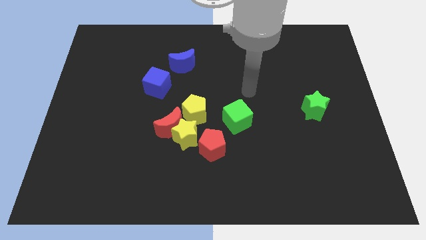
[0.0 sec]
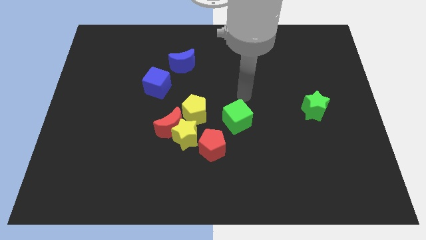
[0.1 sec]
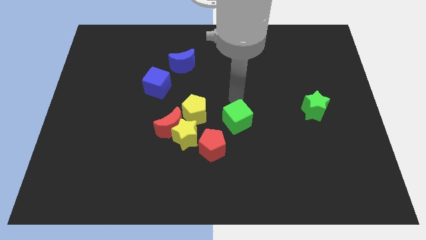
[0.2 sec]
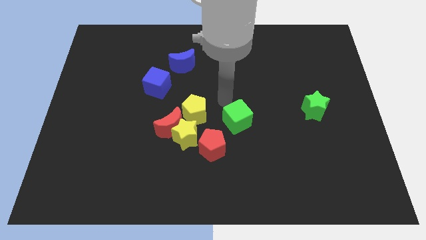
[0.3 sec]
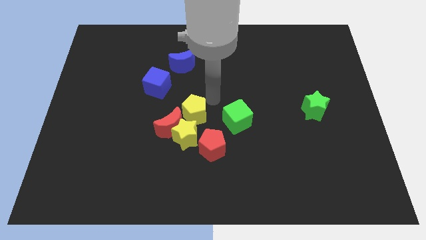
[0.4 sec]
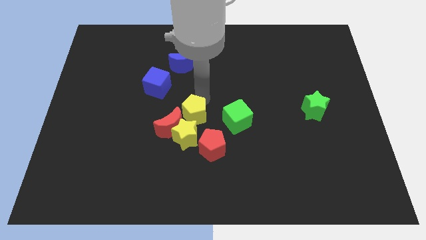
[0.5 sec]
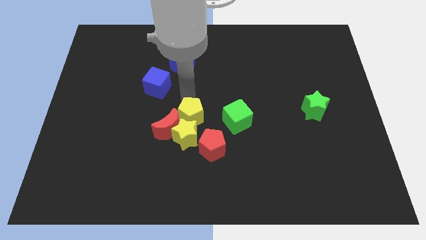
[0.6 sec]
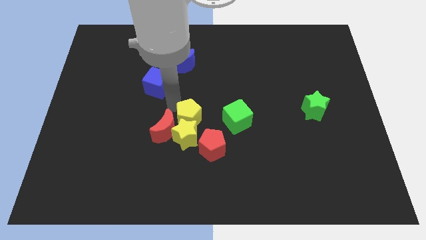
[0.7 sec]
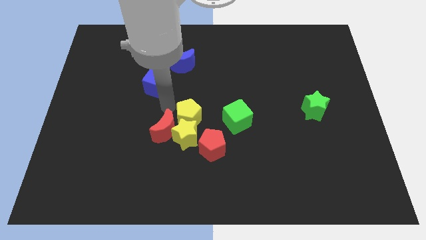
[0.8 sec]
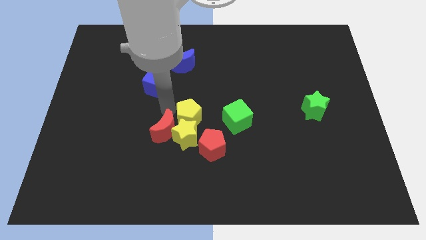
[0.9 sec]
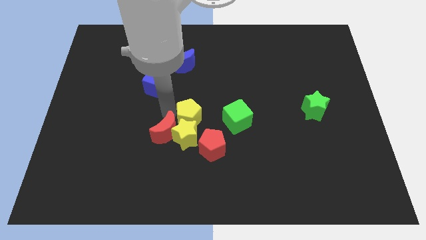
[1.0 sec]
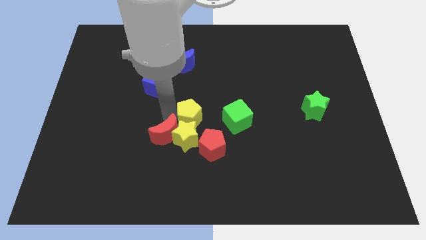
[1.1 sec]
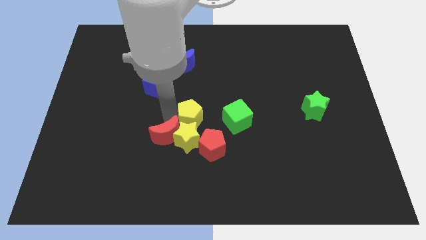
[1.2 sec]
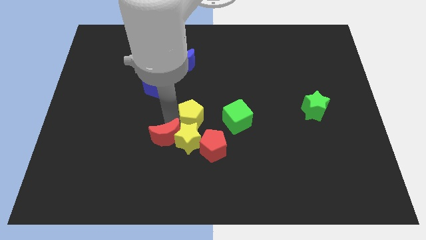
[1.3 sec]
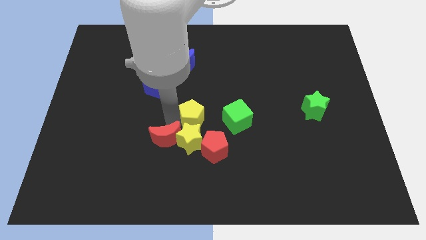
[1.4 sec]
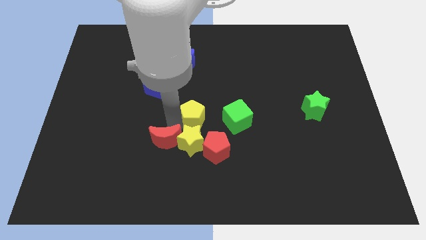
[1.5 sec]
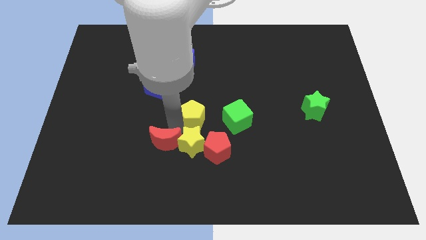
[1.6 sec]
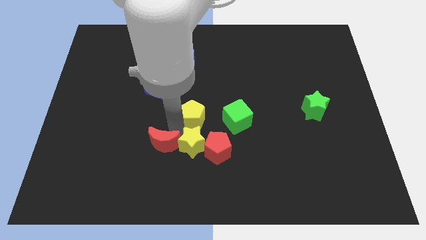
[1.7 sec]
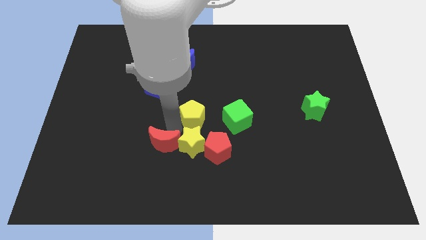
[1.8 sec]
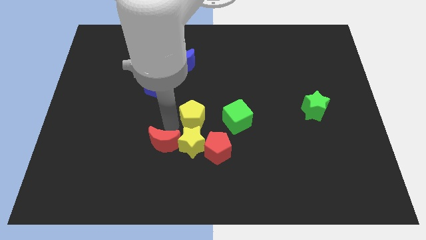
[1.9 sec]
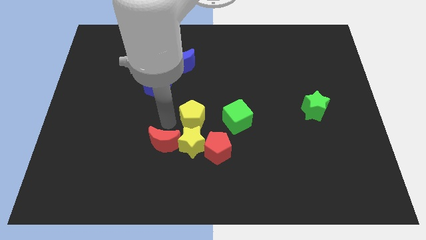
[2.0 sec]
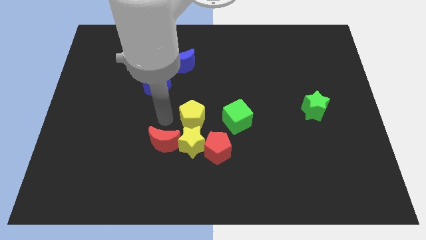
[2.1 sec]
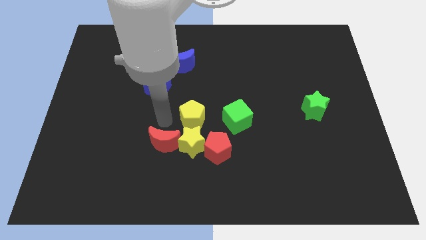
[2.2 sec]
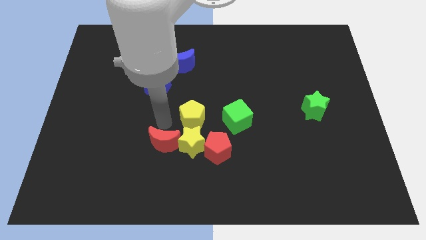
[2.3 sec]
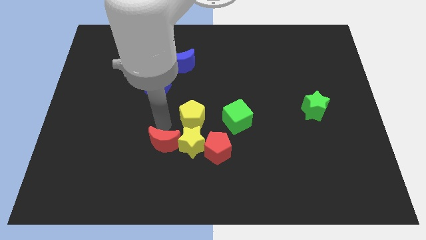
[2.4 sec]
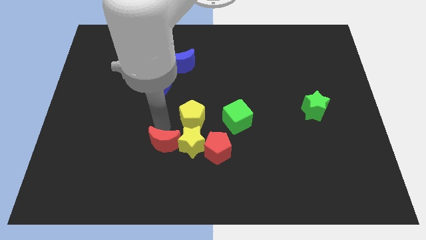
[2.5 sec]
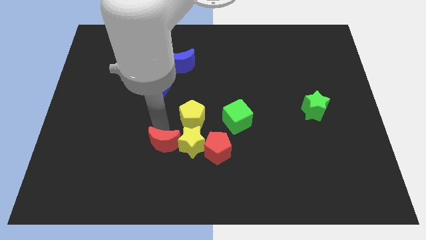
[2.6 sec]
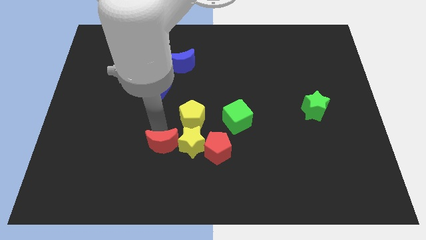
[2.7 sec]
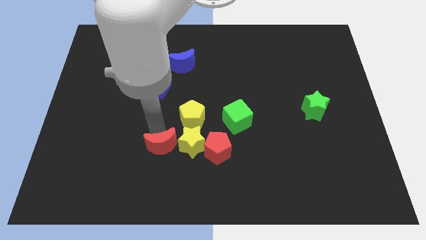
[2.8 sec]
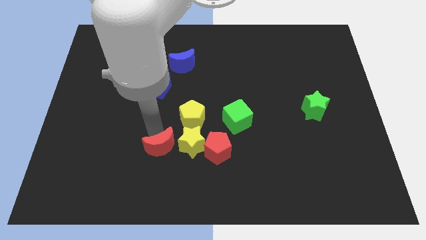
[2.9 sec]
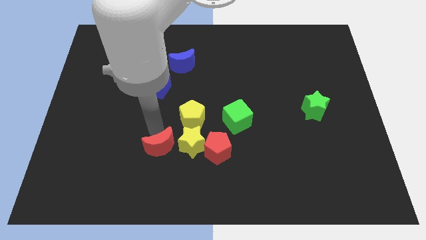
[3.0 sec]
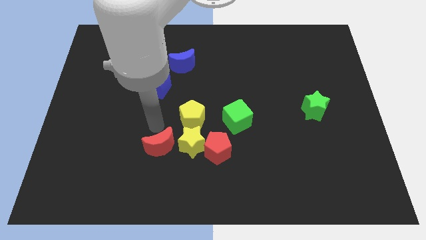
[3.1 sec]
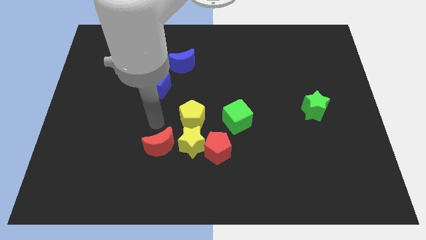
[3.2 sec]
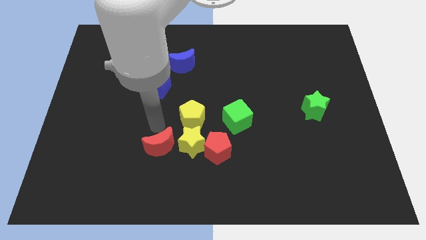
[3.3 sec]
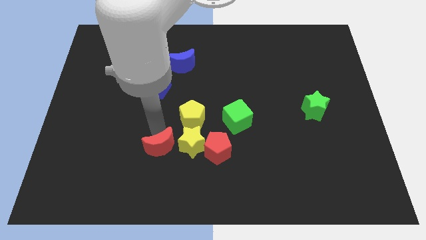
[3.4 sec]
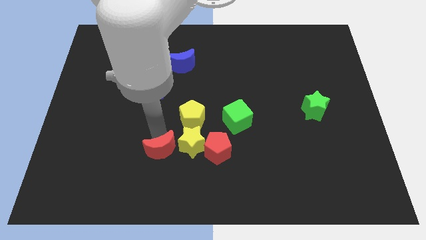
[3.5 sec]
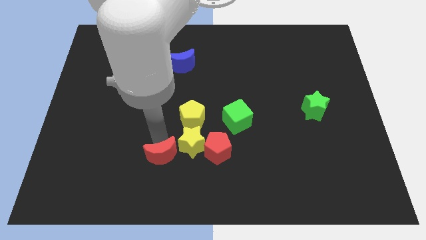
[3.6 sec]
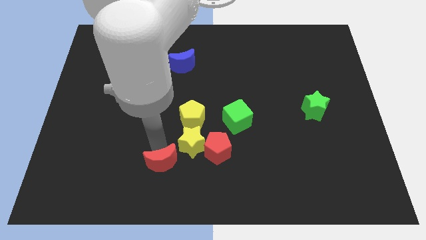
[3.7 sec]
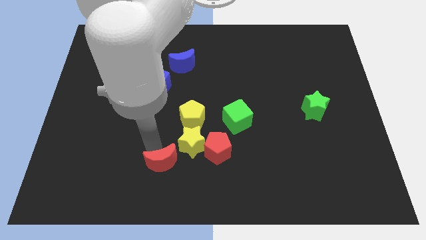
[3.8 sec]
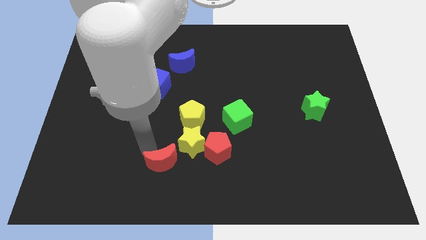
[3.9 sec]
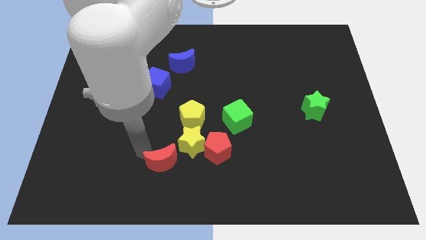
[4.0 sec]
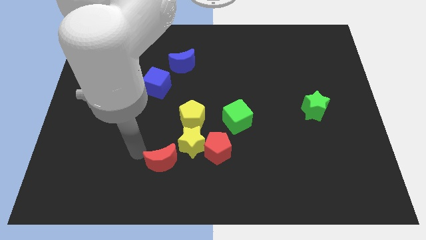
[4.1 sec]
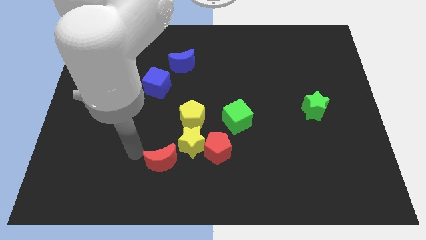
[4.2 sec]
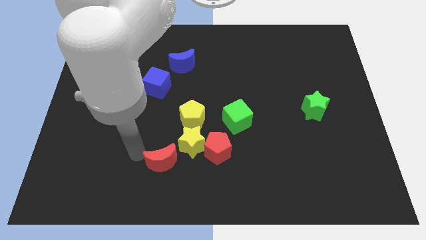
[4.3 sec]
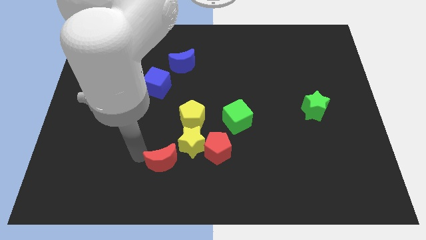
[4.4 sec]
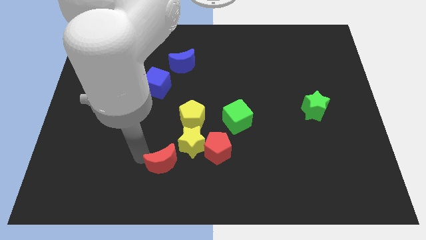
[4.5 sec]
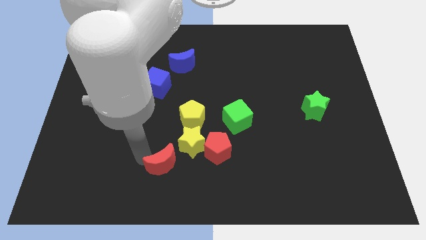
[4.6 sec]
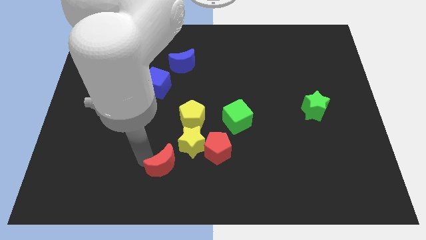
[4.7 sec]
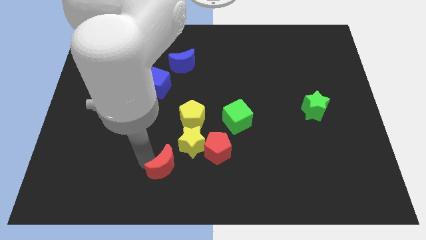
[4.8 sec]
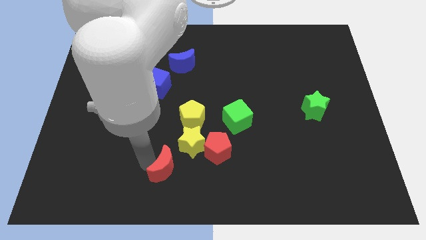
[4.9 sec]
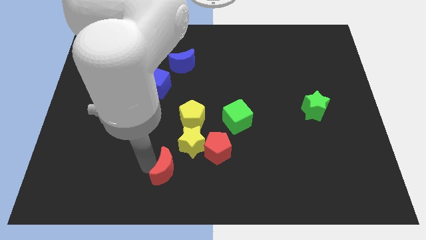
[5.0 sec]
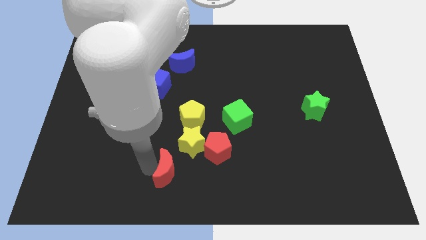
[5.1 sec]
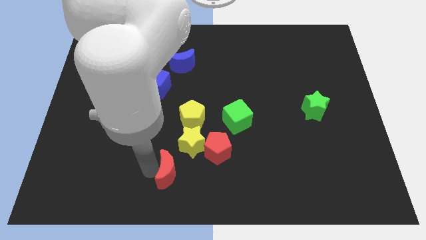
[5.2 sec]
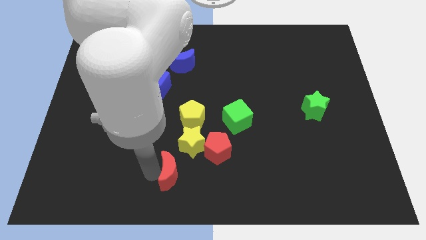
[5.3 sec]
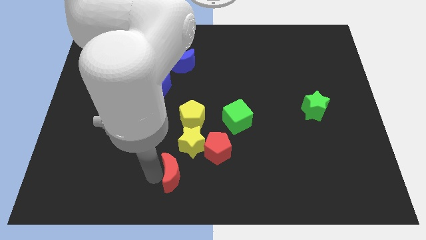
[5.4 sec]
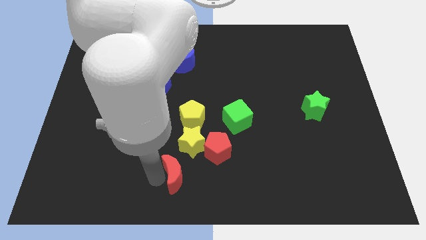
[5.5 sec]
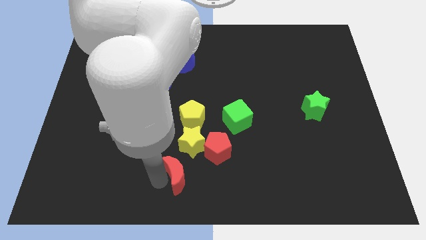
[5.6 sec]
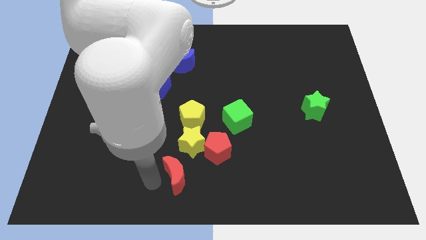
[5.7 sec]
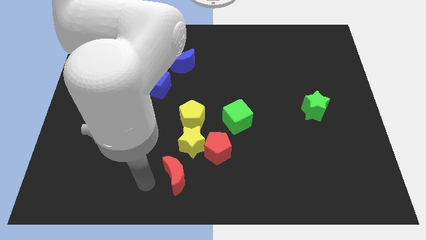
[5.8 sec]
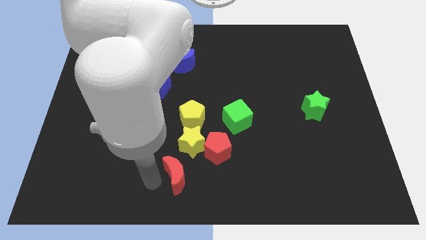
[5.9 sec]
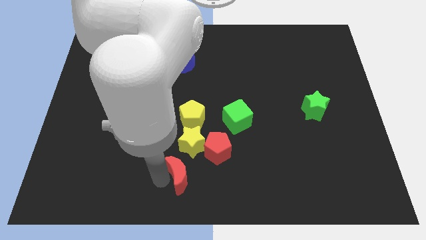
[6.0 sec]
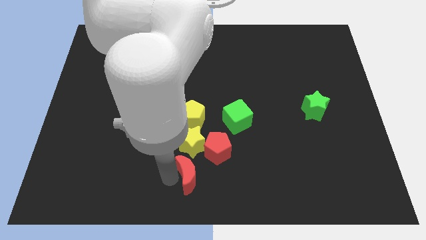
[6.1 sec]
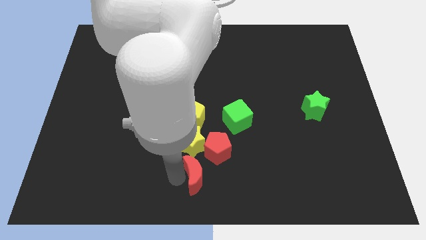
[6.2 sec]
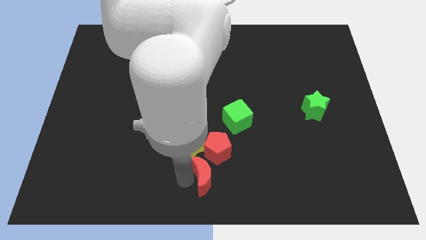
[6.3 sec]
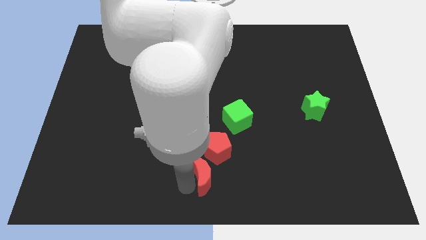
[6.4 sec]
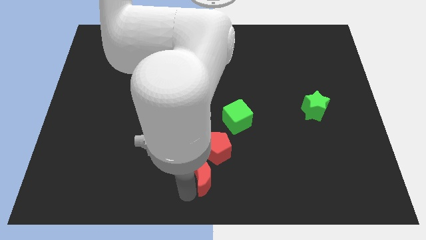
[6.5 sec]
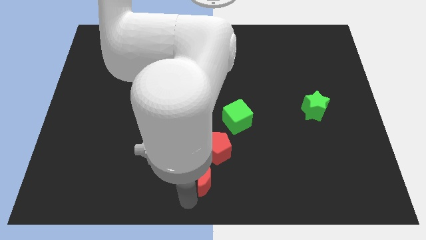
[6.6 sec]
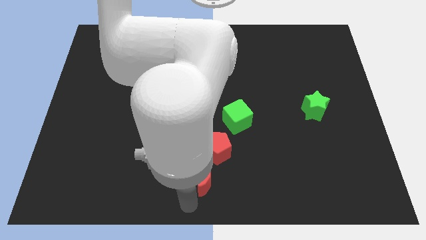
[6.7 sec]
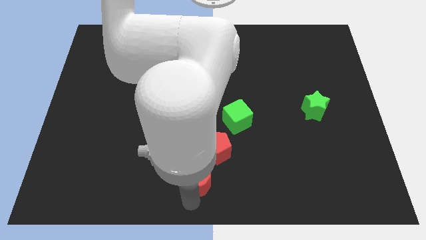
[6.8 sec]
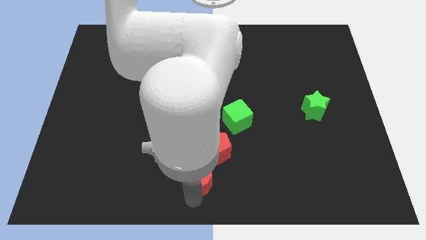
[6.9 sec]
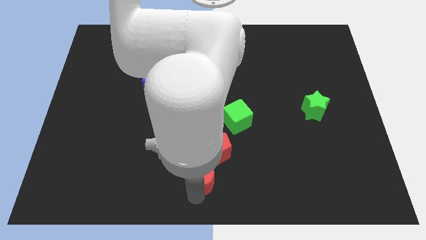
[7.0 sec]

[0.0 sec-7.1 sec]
slide the red moon towards the red pentagon
